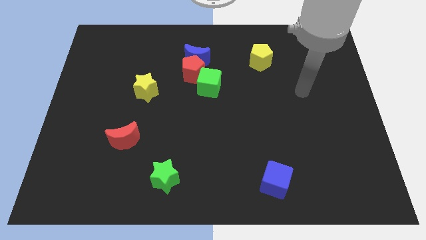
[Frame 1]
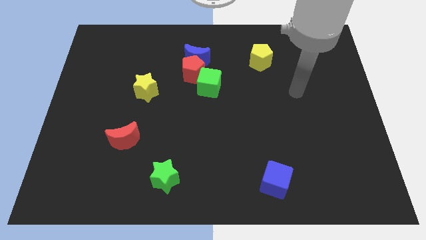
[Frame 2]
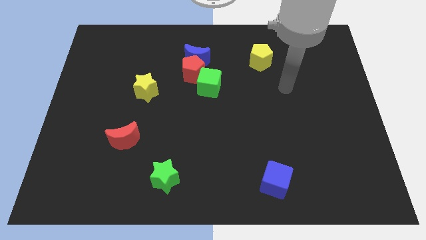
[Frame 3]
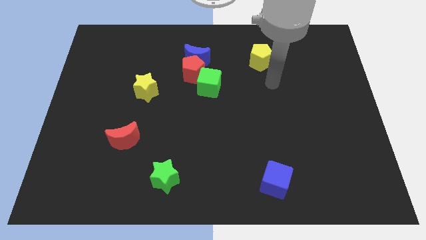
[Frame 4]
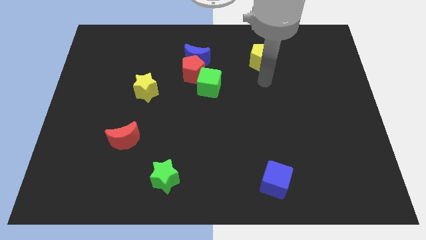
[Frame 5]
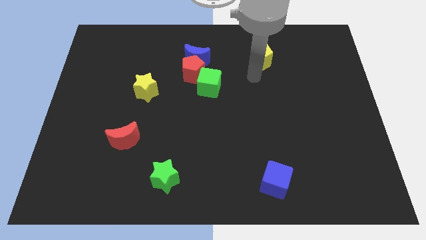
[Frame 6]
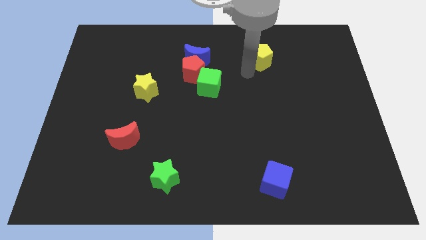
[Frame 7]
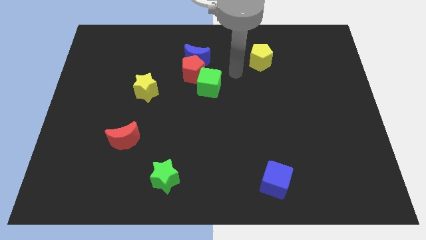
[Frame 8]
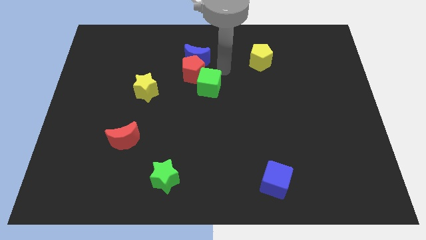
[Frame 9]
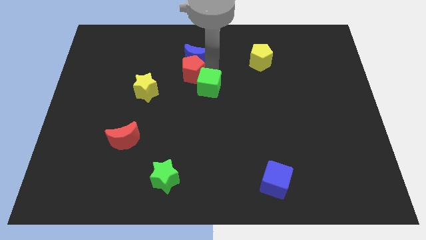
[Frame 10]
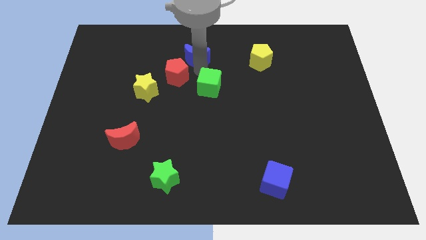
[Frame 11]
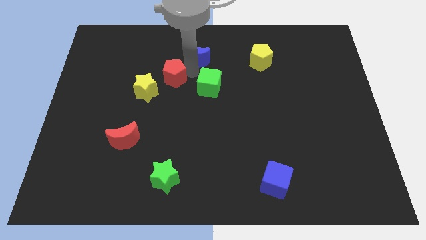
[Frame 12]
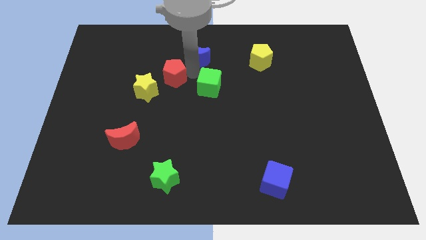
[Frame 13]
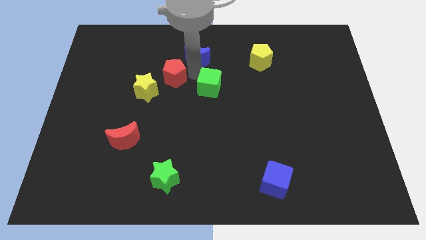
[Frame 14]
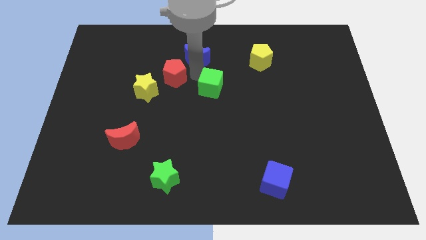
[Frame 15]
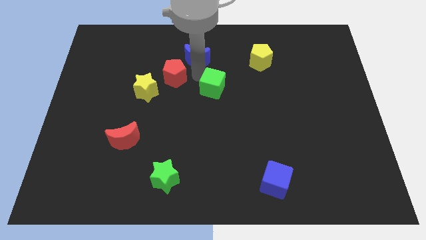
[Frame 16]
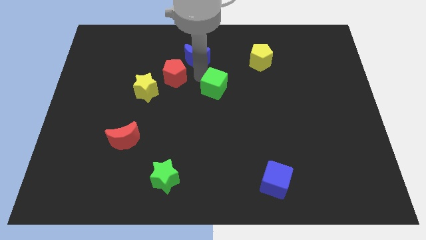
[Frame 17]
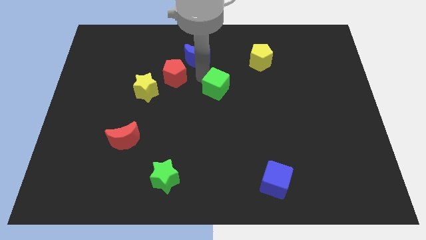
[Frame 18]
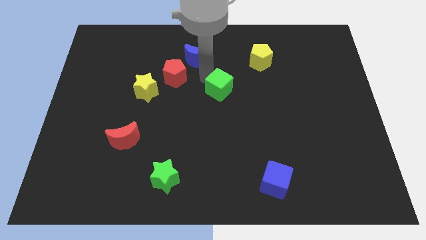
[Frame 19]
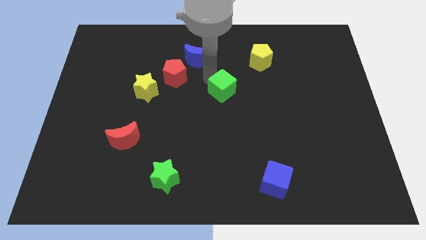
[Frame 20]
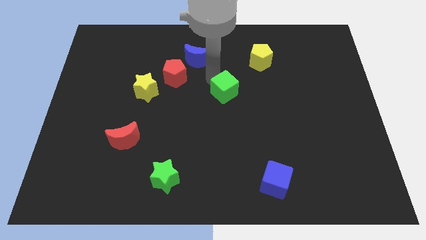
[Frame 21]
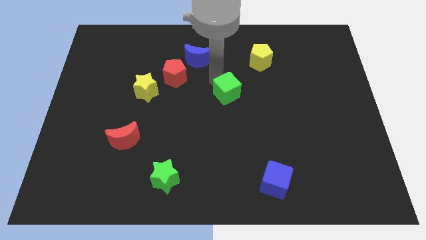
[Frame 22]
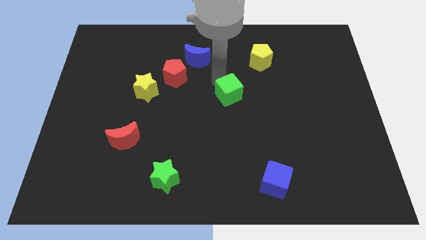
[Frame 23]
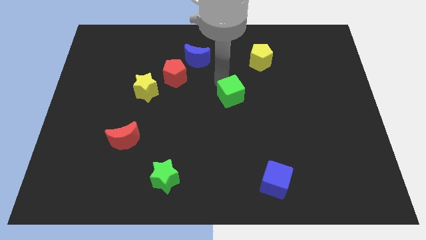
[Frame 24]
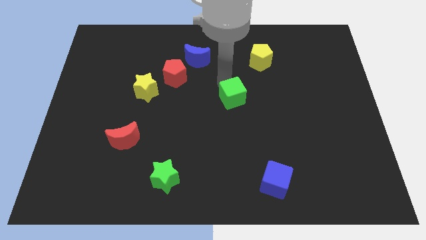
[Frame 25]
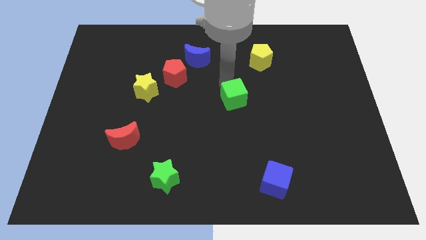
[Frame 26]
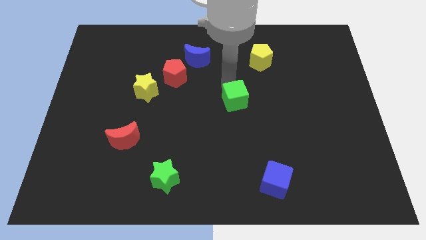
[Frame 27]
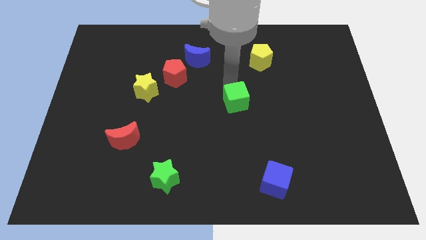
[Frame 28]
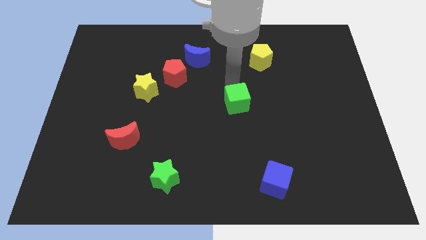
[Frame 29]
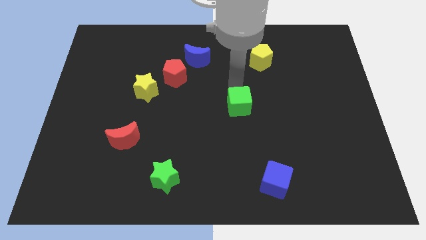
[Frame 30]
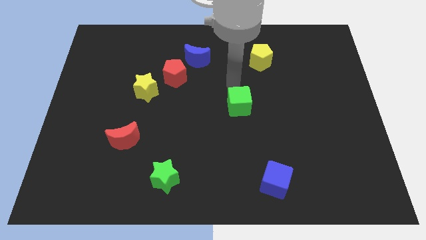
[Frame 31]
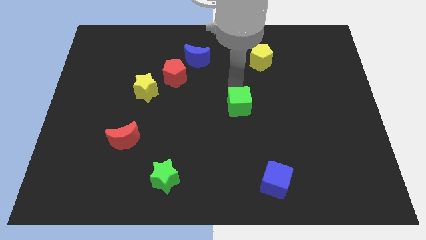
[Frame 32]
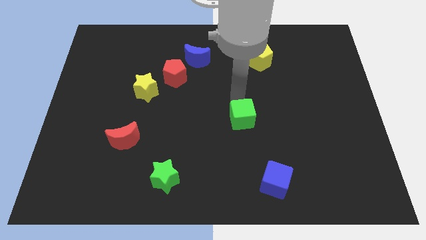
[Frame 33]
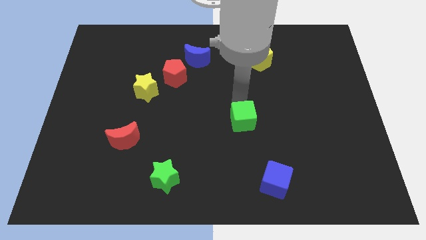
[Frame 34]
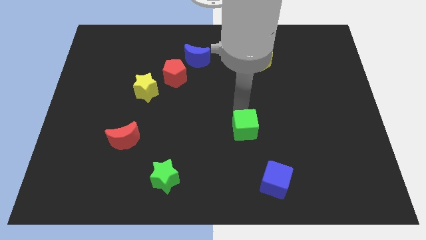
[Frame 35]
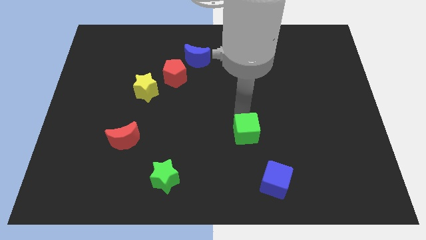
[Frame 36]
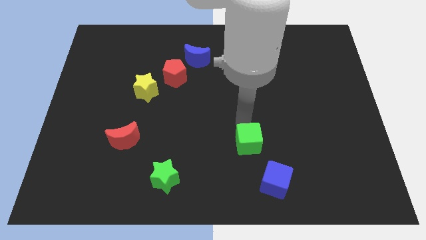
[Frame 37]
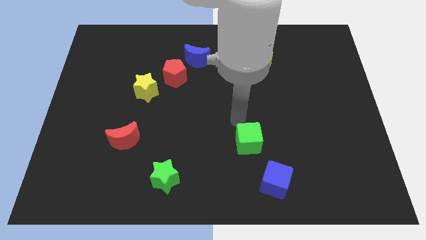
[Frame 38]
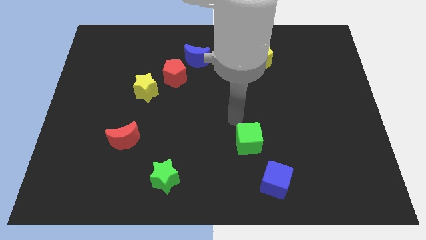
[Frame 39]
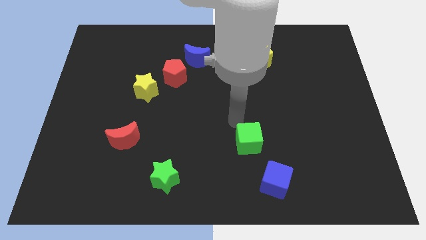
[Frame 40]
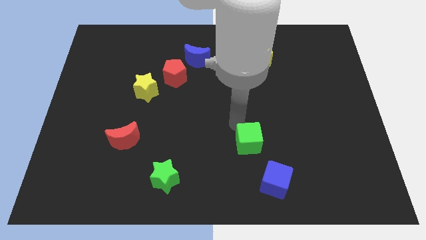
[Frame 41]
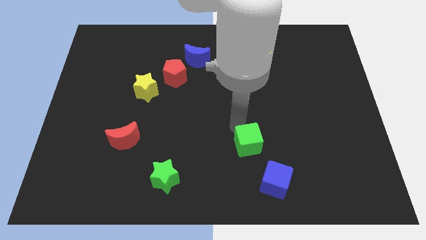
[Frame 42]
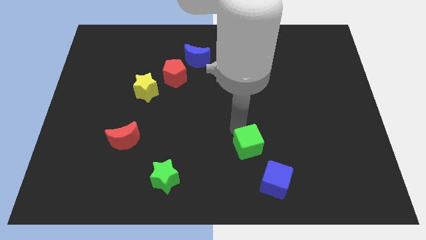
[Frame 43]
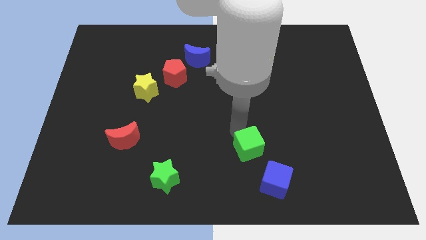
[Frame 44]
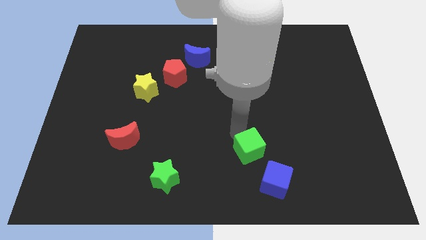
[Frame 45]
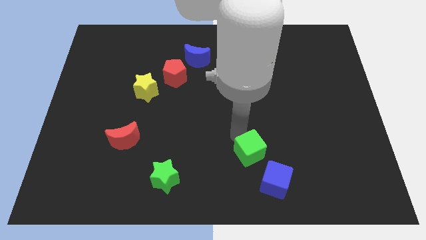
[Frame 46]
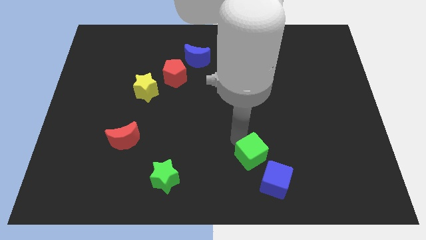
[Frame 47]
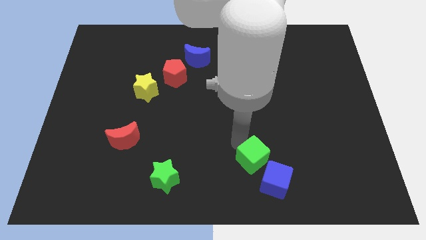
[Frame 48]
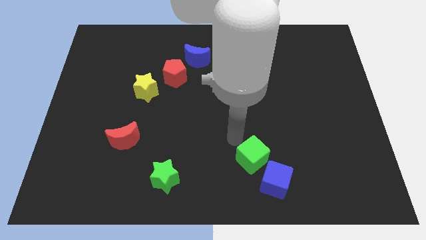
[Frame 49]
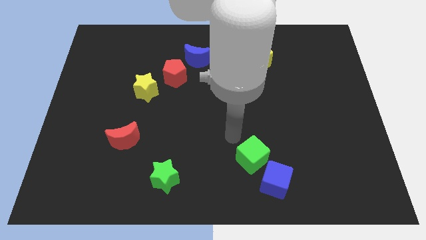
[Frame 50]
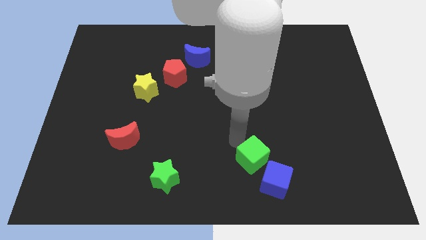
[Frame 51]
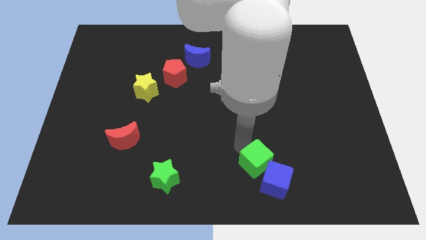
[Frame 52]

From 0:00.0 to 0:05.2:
put the green cube towards the blue cube

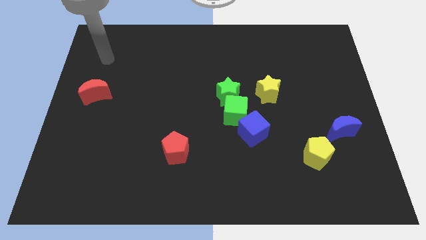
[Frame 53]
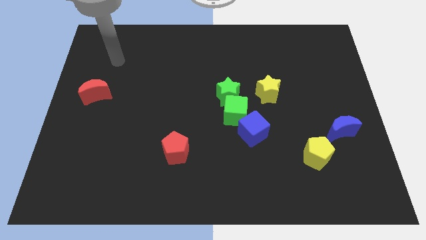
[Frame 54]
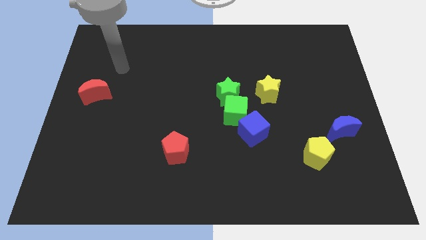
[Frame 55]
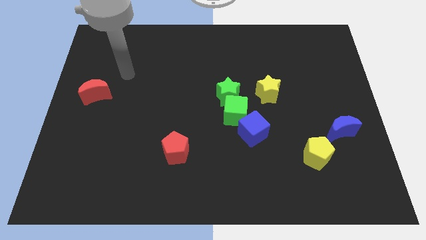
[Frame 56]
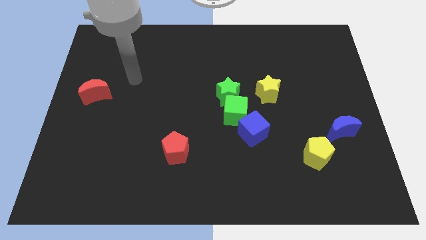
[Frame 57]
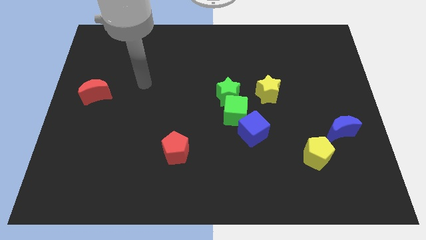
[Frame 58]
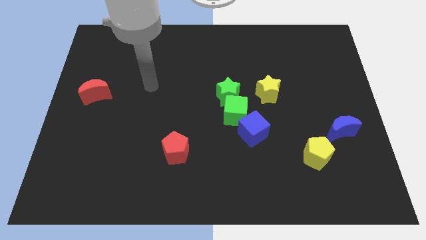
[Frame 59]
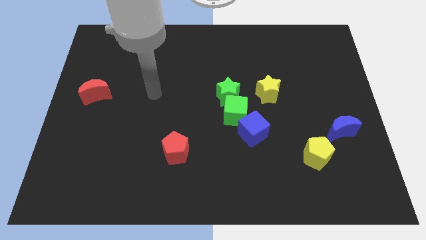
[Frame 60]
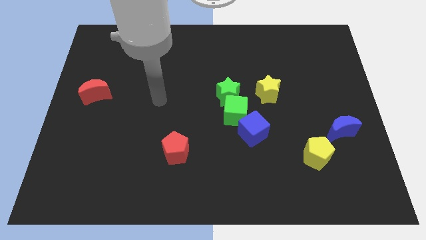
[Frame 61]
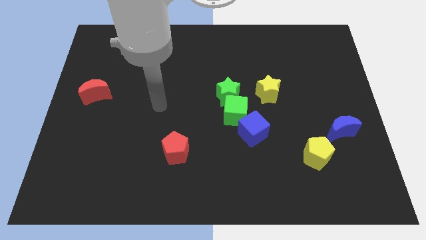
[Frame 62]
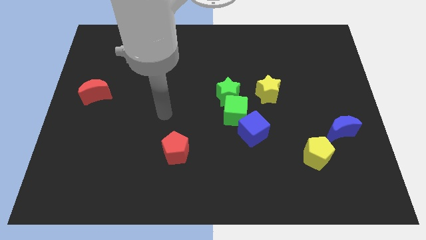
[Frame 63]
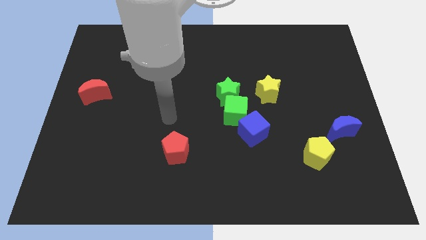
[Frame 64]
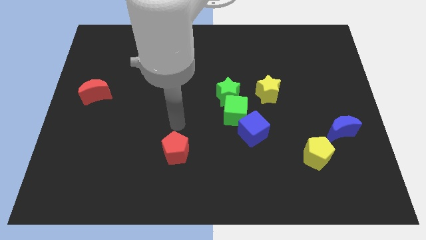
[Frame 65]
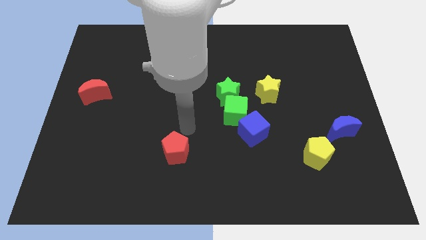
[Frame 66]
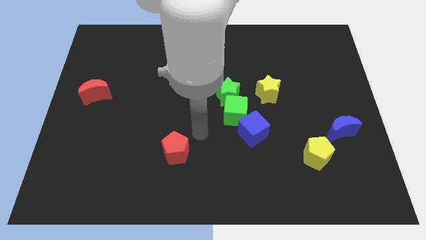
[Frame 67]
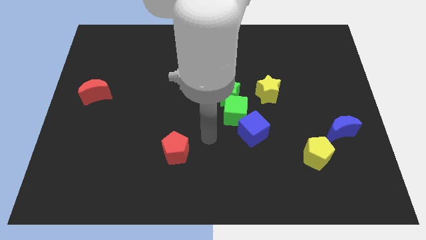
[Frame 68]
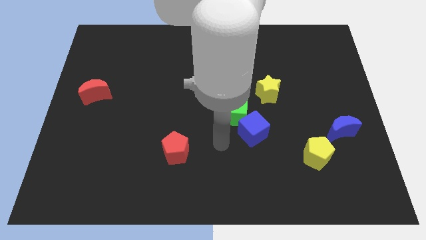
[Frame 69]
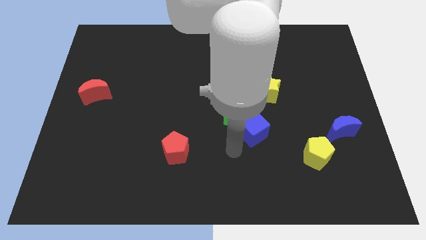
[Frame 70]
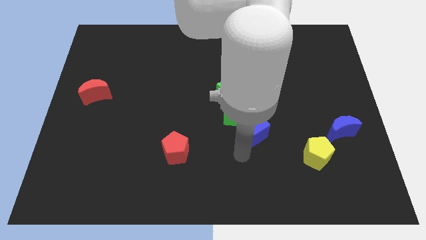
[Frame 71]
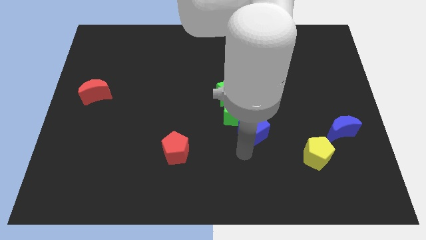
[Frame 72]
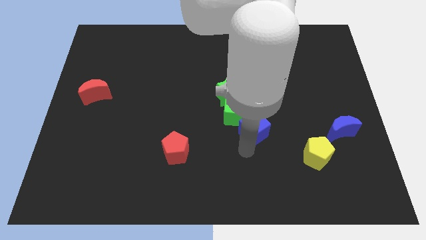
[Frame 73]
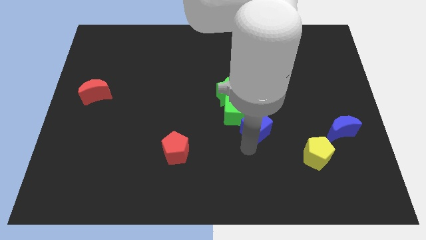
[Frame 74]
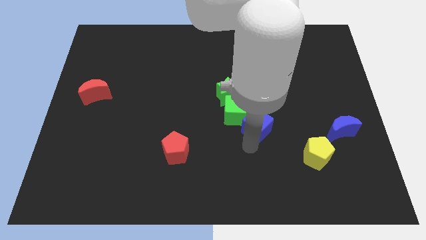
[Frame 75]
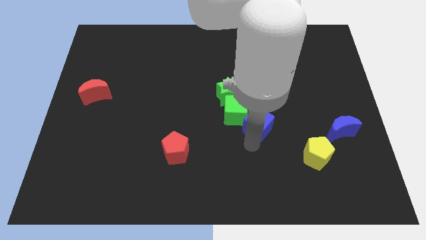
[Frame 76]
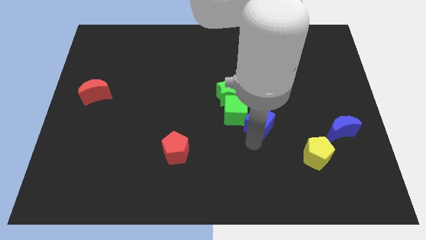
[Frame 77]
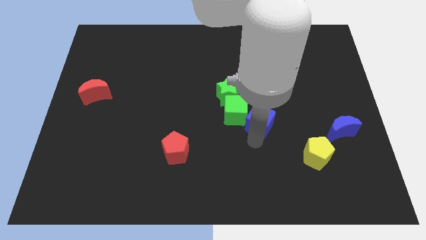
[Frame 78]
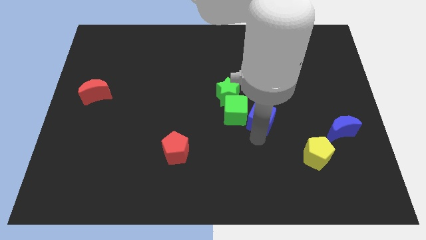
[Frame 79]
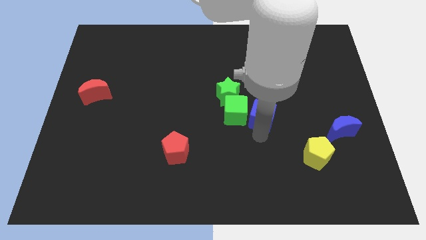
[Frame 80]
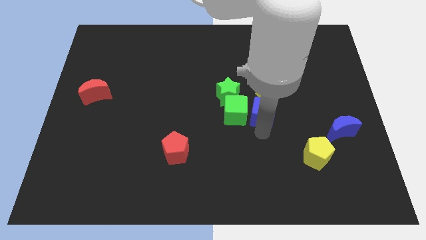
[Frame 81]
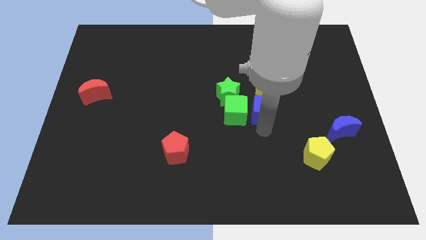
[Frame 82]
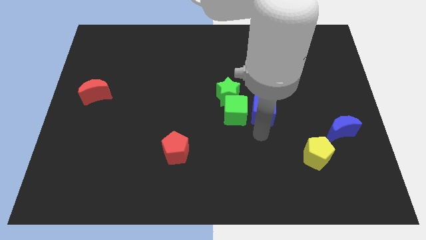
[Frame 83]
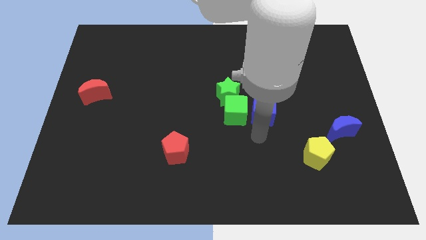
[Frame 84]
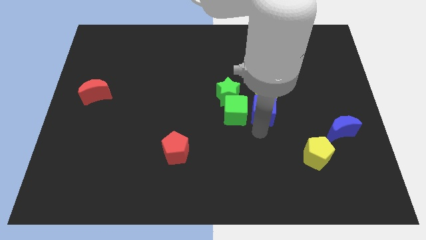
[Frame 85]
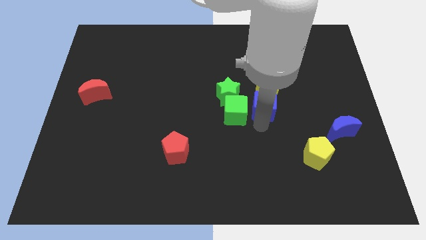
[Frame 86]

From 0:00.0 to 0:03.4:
push the blue cube to the yellow star
